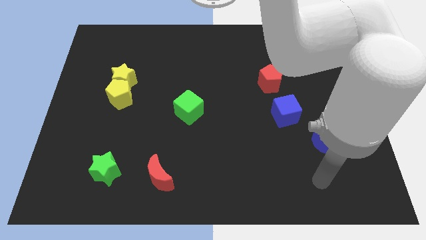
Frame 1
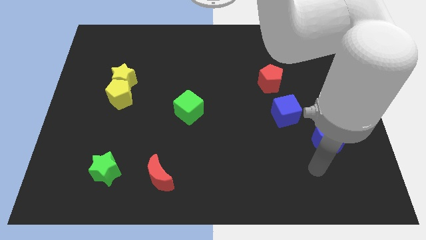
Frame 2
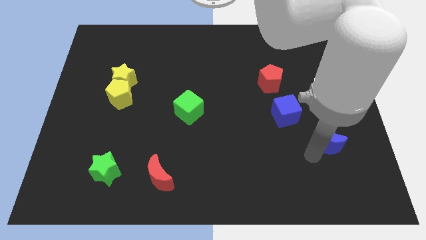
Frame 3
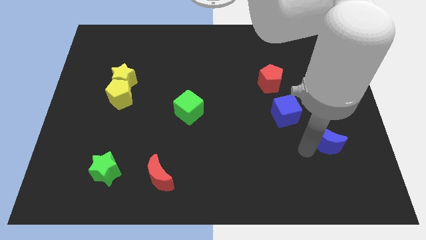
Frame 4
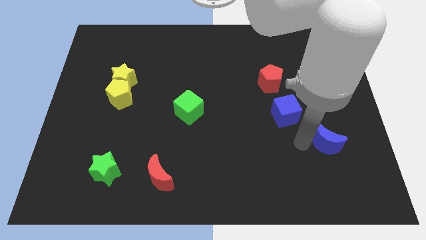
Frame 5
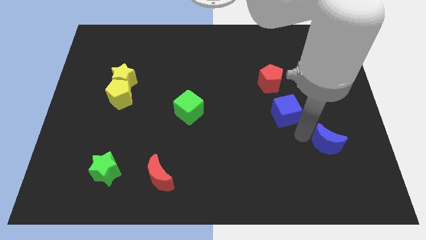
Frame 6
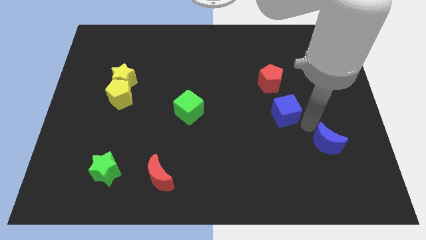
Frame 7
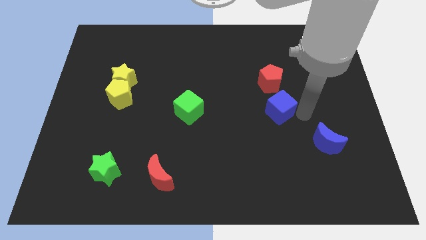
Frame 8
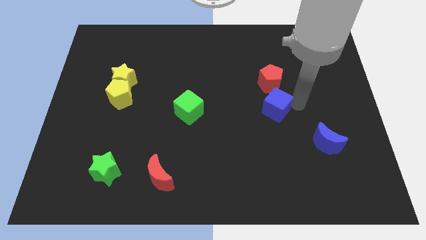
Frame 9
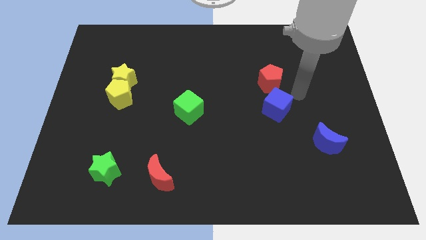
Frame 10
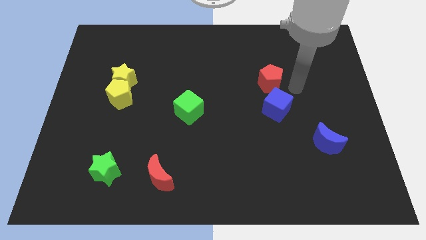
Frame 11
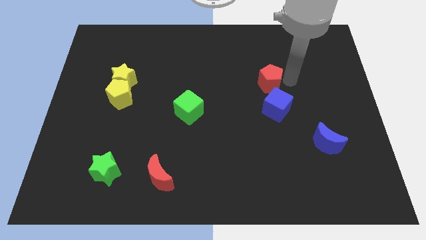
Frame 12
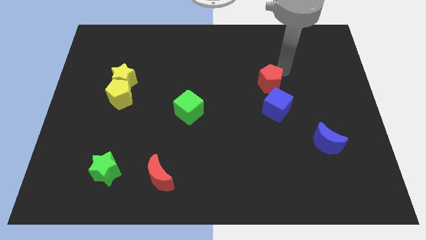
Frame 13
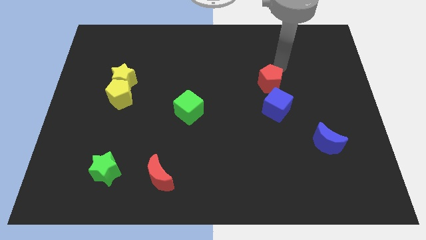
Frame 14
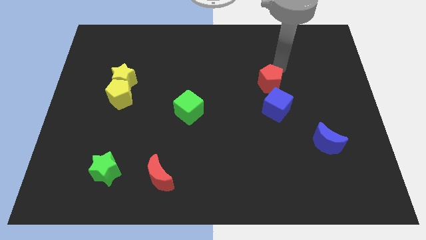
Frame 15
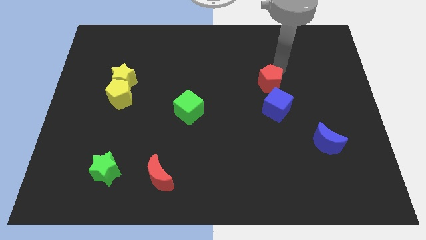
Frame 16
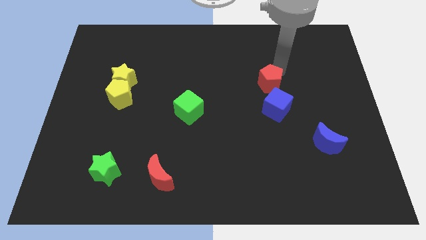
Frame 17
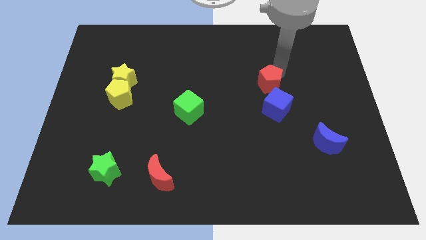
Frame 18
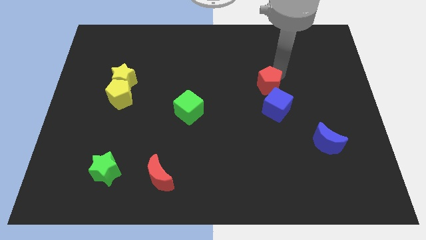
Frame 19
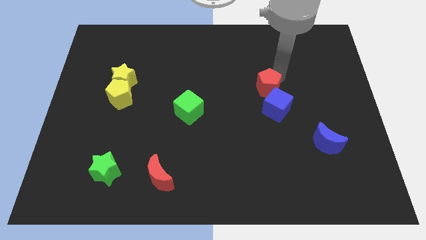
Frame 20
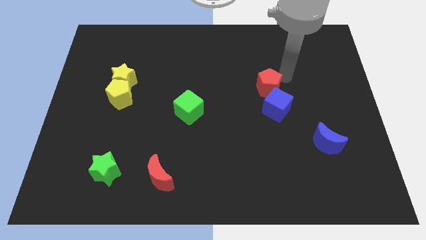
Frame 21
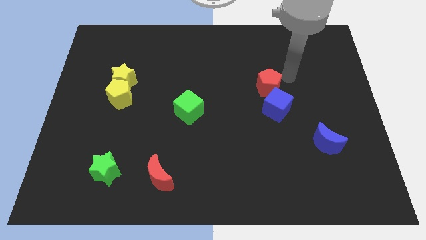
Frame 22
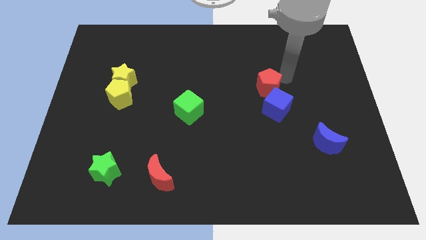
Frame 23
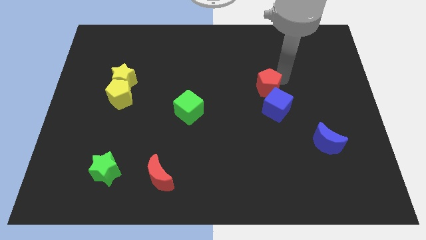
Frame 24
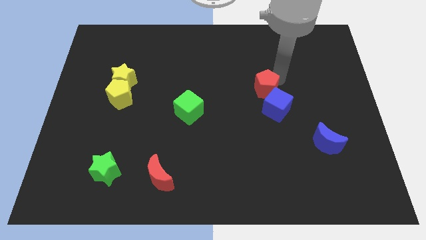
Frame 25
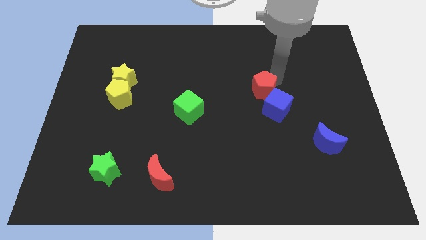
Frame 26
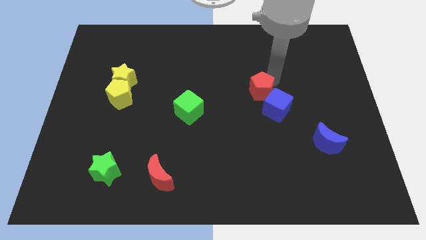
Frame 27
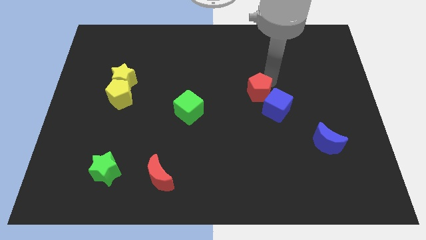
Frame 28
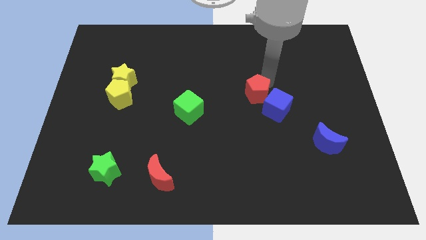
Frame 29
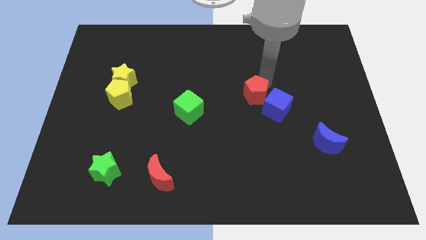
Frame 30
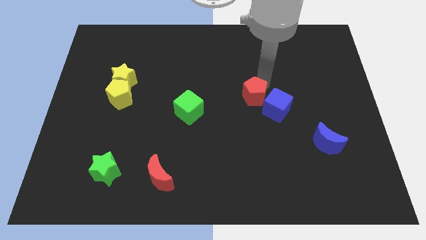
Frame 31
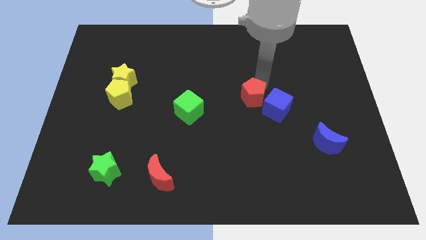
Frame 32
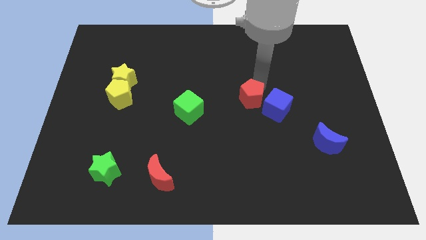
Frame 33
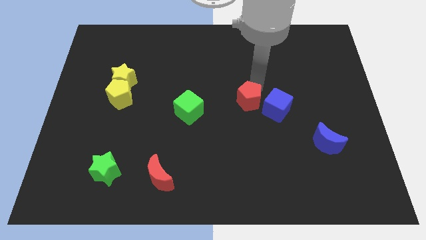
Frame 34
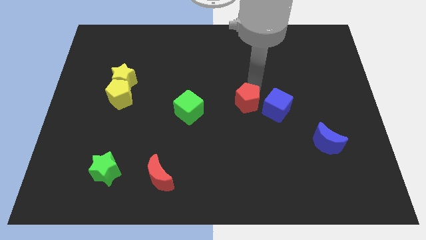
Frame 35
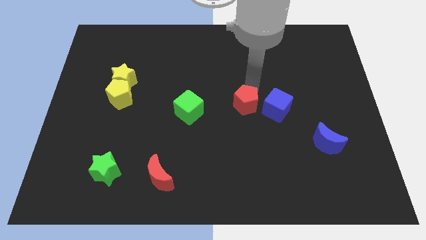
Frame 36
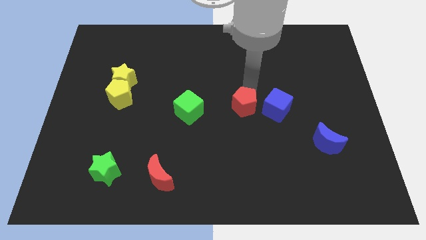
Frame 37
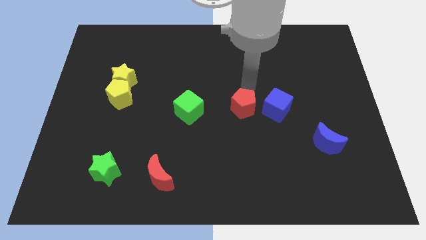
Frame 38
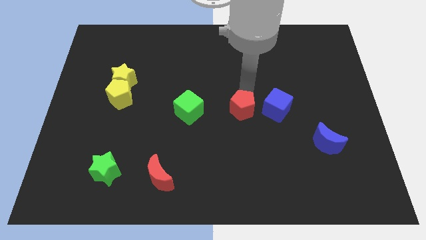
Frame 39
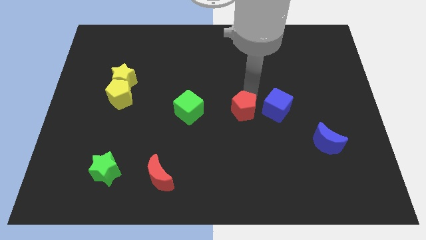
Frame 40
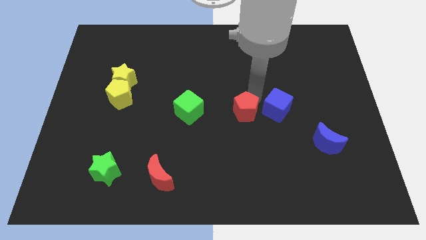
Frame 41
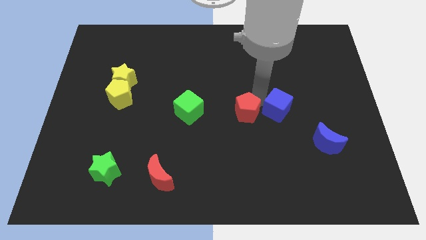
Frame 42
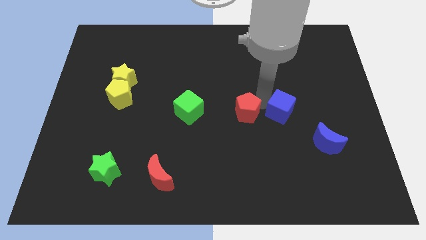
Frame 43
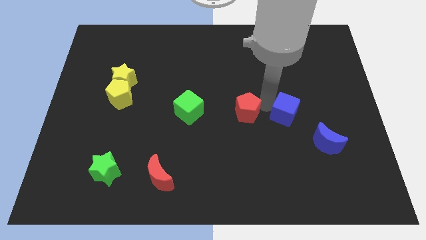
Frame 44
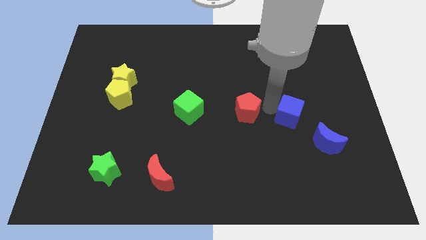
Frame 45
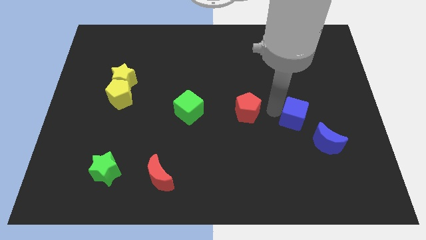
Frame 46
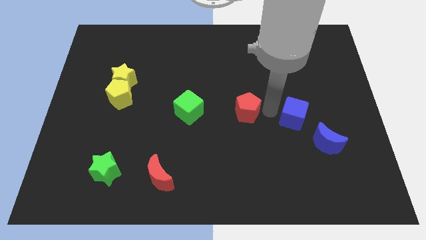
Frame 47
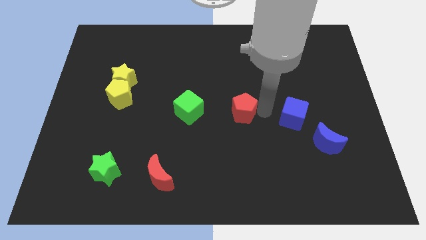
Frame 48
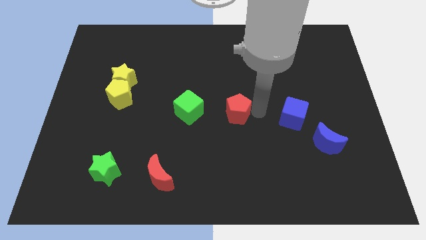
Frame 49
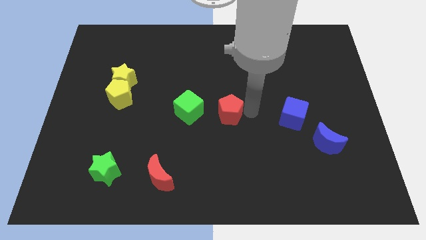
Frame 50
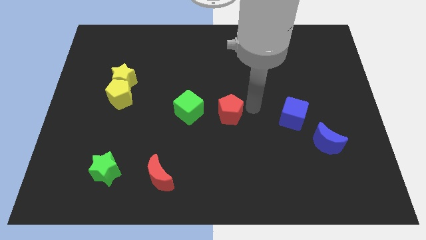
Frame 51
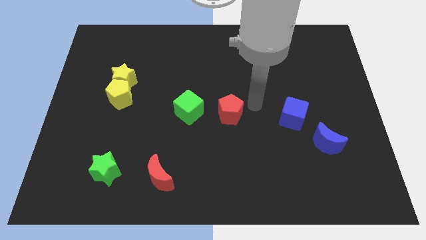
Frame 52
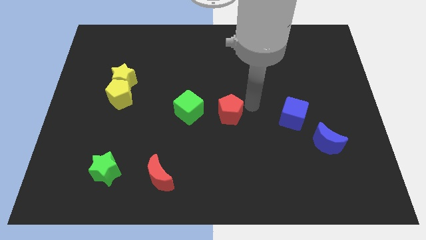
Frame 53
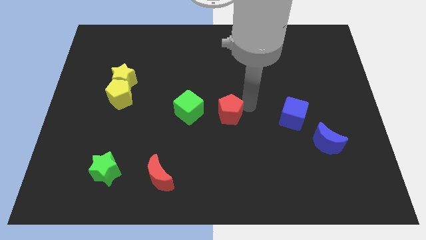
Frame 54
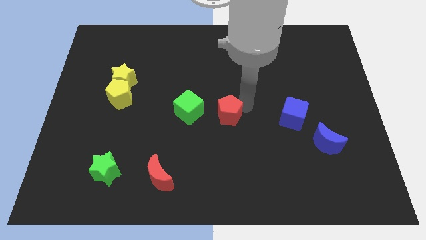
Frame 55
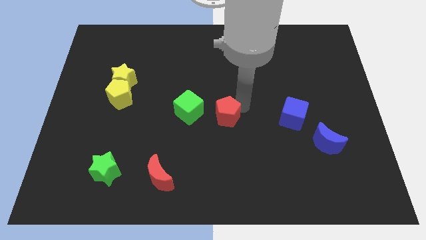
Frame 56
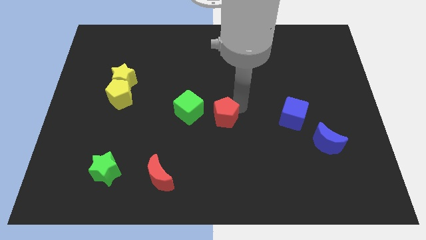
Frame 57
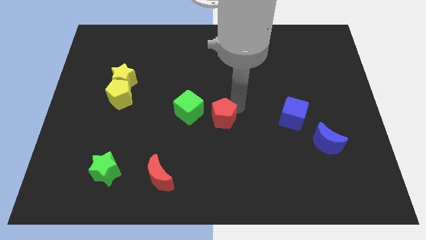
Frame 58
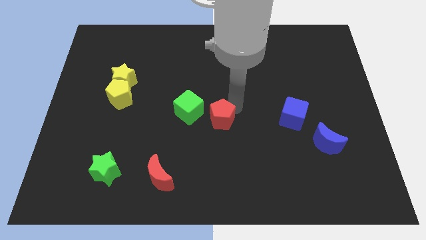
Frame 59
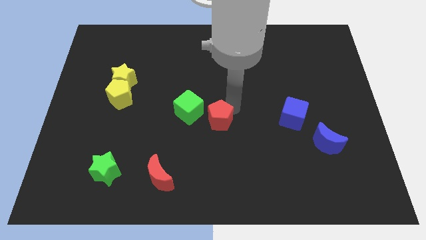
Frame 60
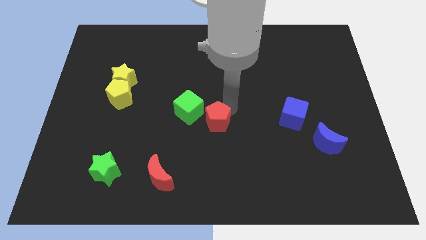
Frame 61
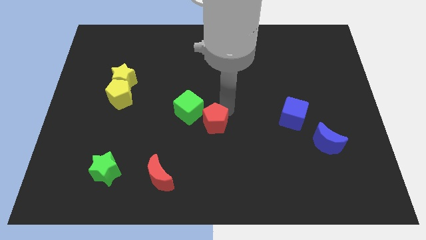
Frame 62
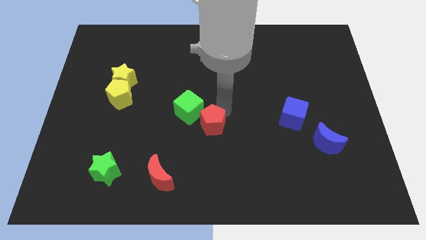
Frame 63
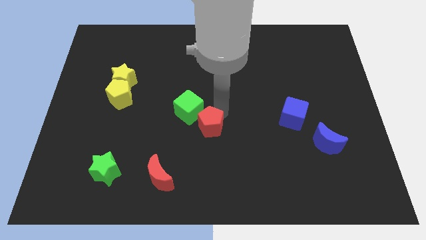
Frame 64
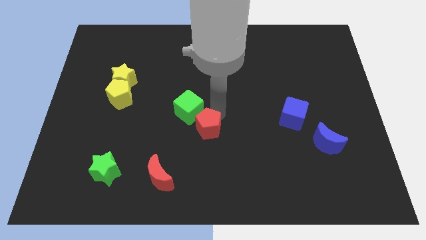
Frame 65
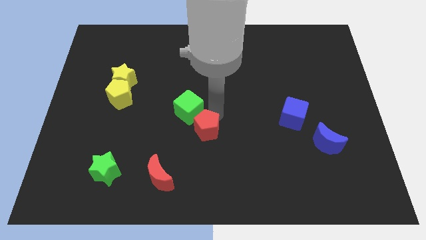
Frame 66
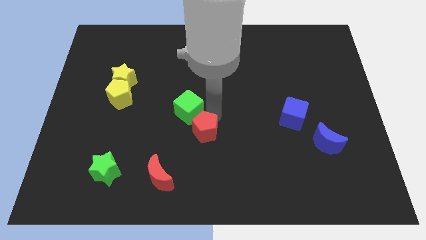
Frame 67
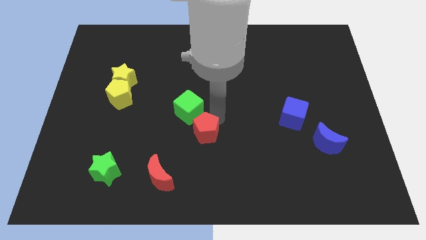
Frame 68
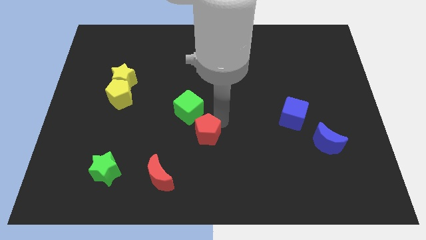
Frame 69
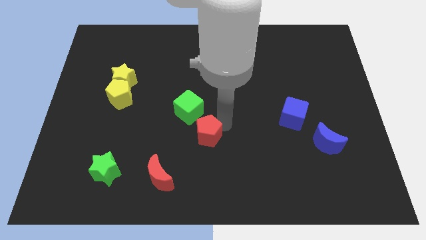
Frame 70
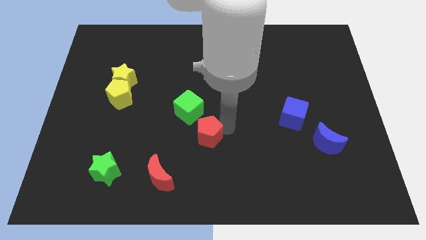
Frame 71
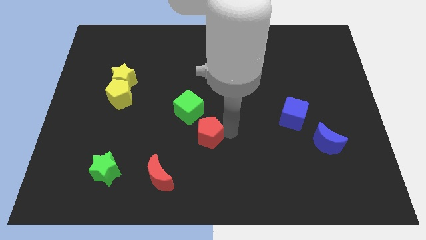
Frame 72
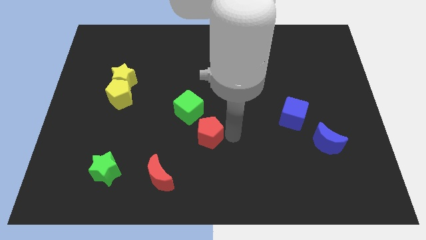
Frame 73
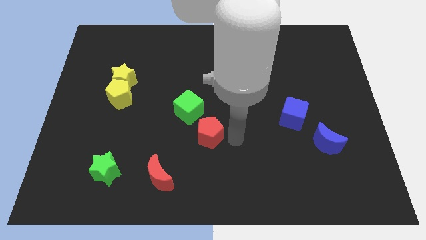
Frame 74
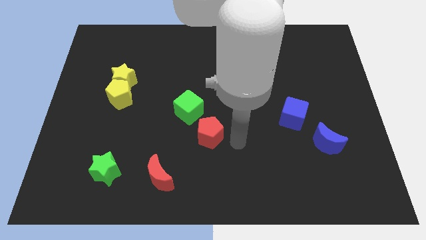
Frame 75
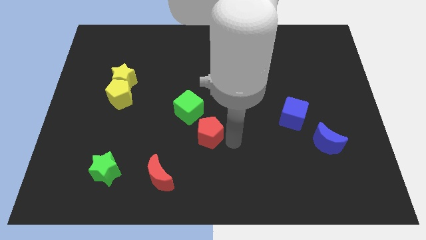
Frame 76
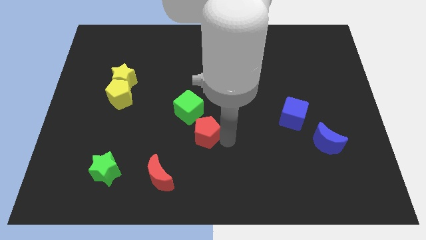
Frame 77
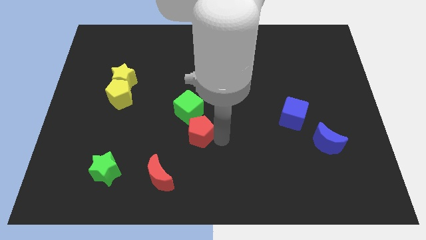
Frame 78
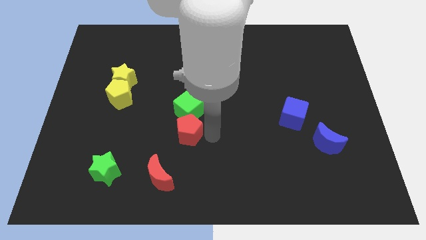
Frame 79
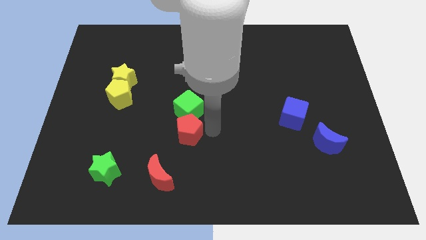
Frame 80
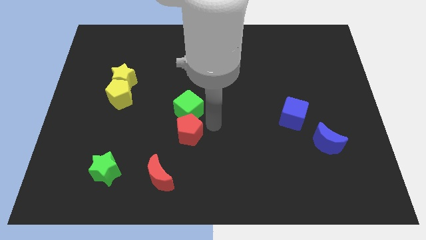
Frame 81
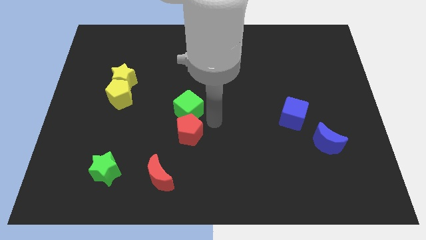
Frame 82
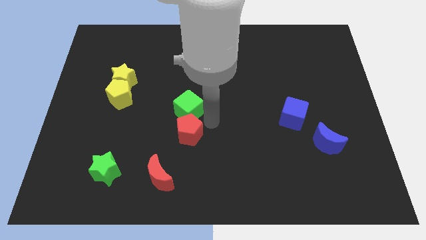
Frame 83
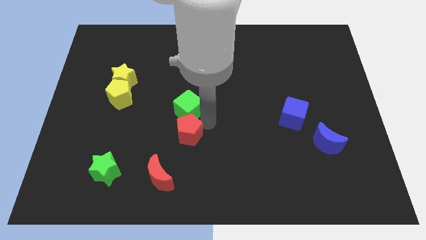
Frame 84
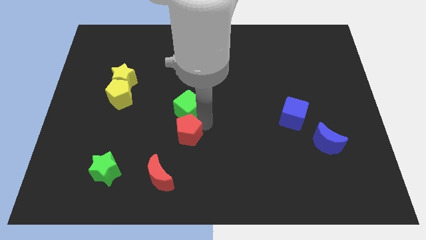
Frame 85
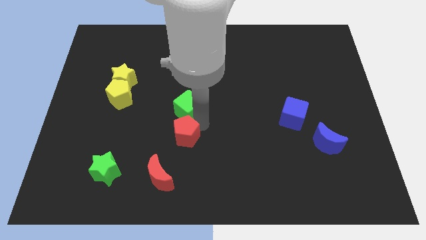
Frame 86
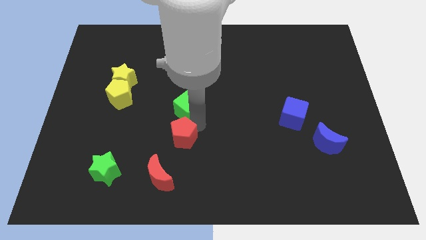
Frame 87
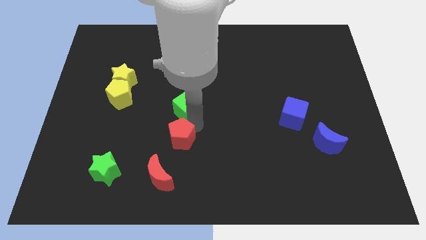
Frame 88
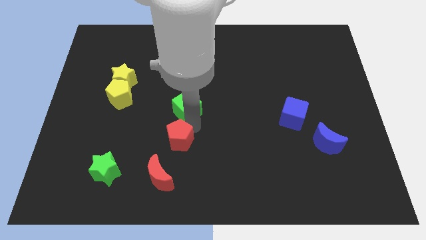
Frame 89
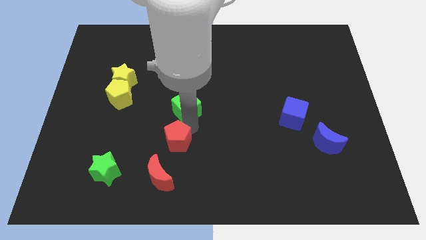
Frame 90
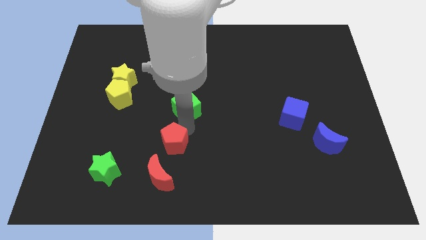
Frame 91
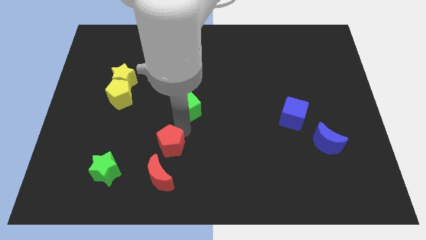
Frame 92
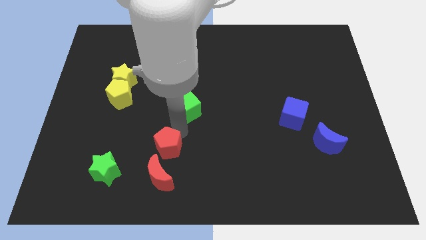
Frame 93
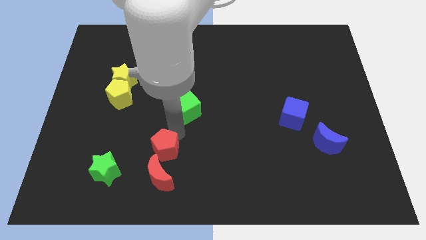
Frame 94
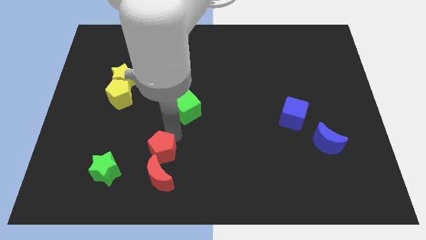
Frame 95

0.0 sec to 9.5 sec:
put the red pentagon diagonally up and to the left of the red moon
